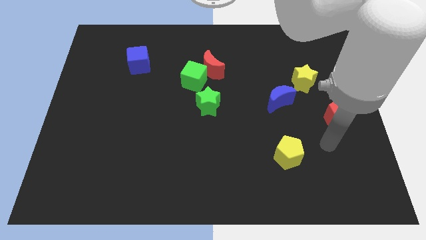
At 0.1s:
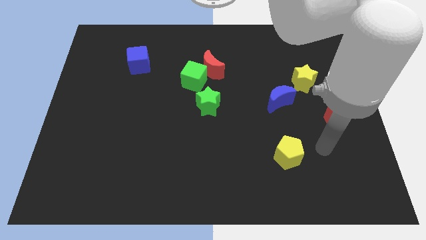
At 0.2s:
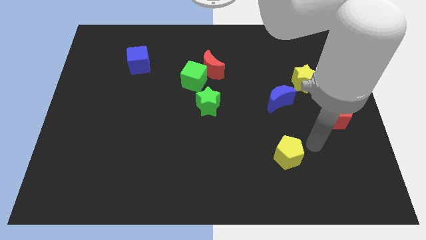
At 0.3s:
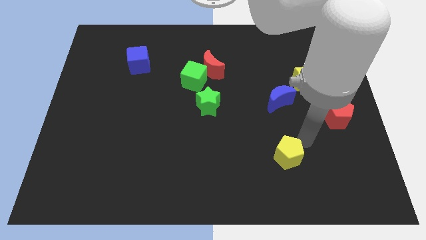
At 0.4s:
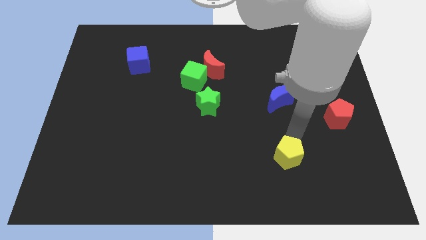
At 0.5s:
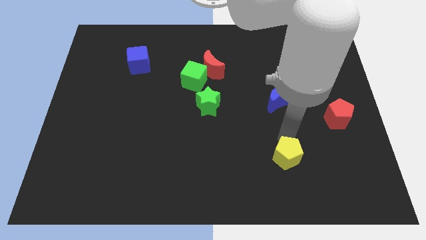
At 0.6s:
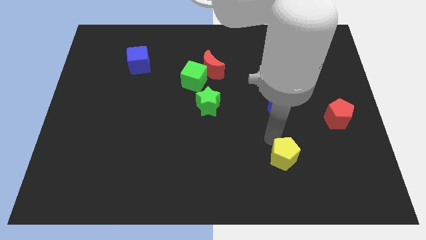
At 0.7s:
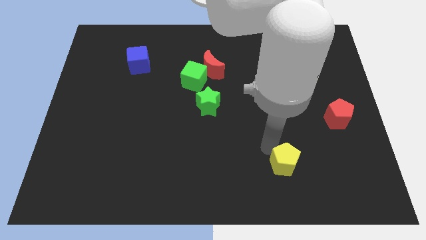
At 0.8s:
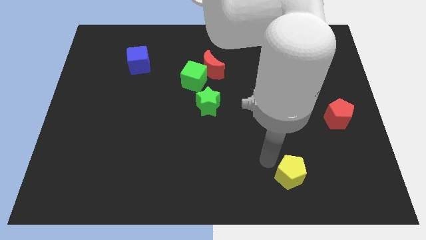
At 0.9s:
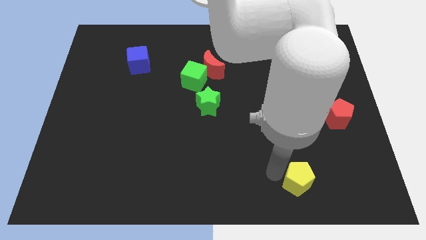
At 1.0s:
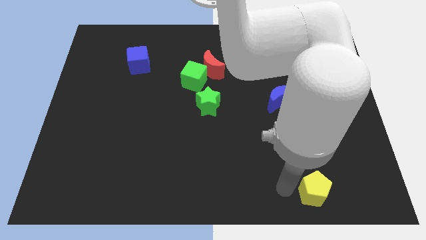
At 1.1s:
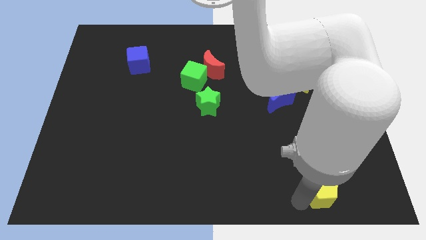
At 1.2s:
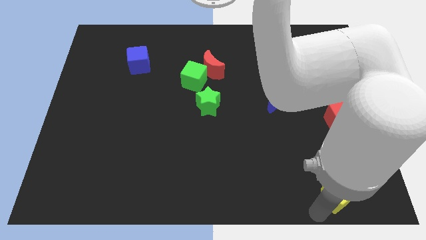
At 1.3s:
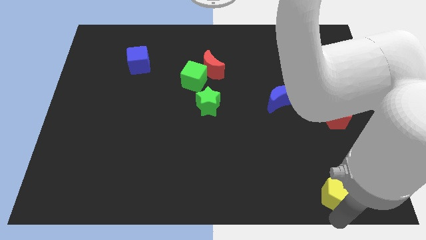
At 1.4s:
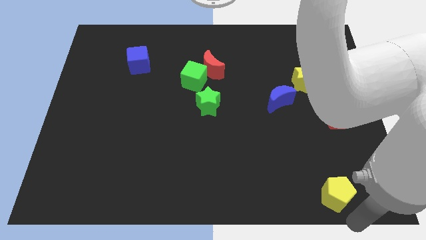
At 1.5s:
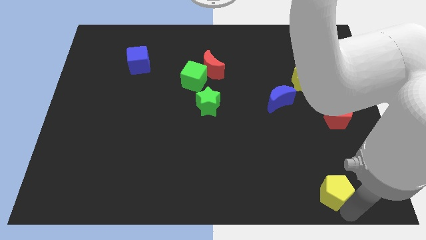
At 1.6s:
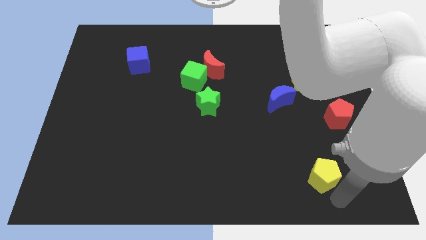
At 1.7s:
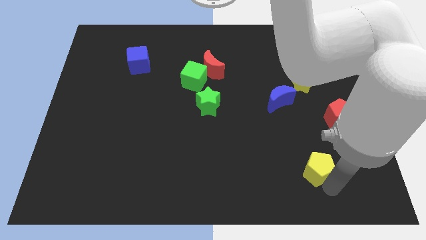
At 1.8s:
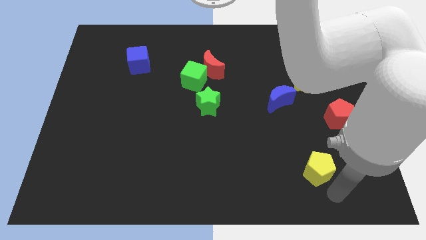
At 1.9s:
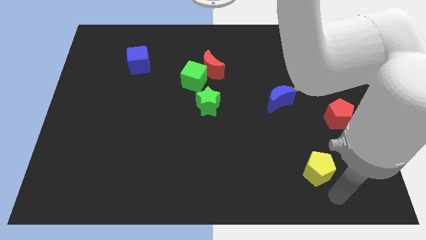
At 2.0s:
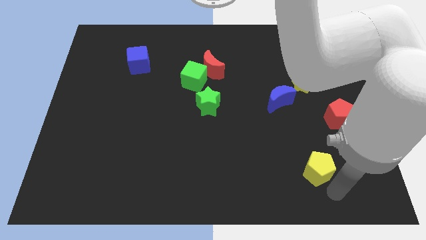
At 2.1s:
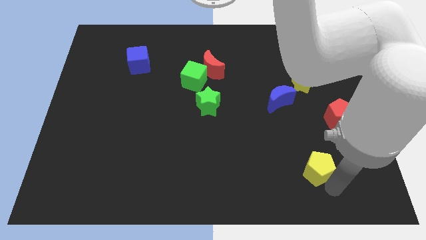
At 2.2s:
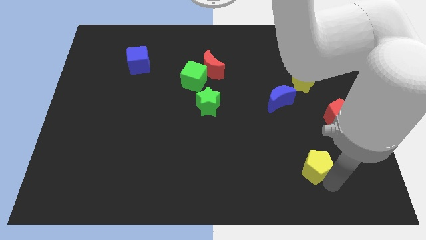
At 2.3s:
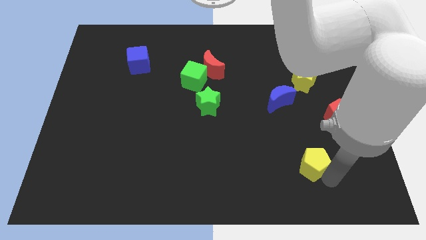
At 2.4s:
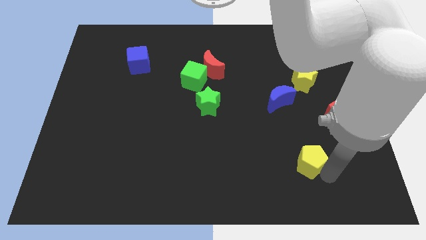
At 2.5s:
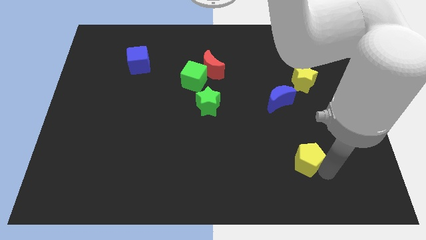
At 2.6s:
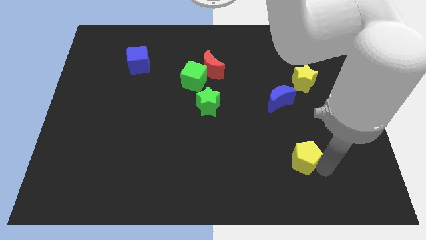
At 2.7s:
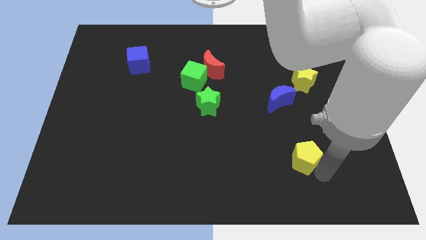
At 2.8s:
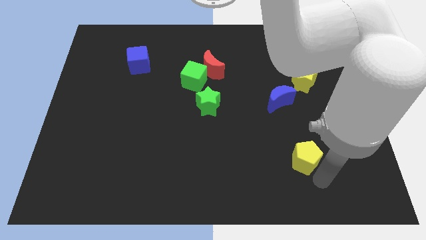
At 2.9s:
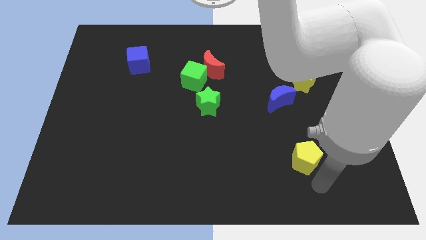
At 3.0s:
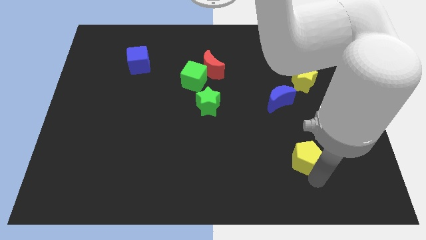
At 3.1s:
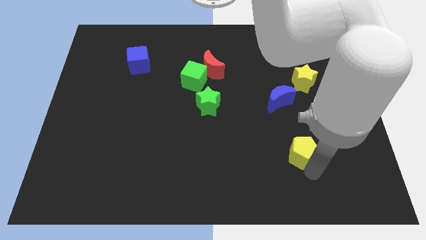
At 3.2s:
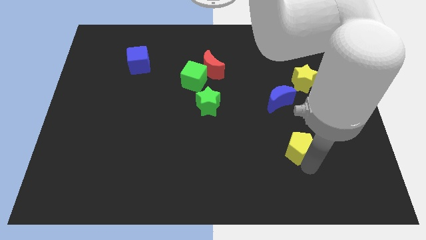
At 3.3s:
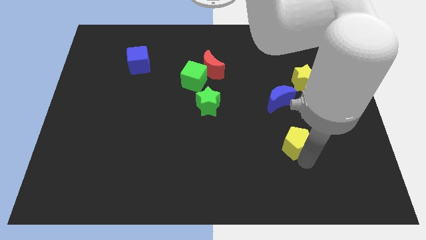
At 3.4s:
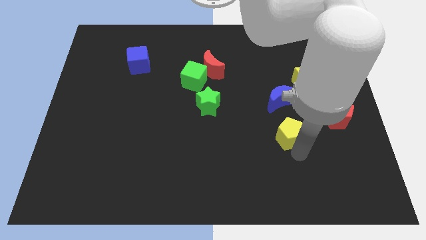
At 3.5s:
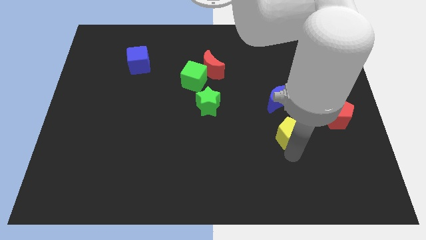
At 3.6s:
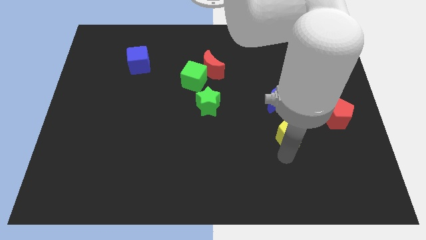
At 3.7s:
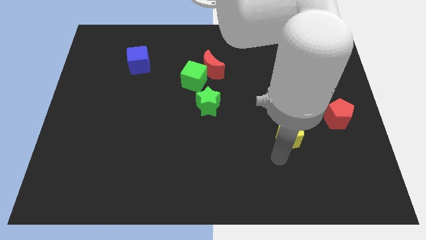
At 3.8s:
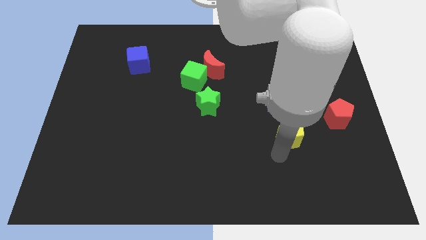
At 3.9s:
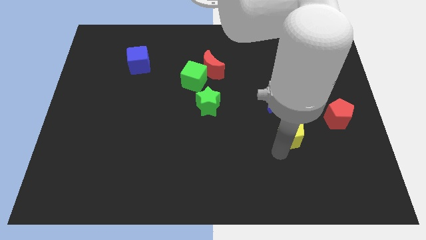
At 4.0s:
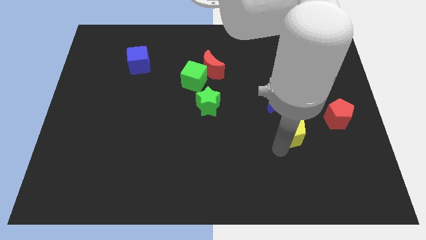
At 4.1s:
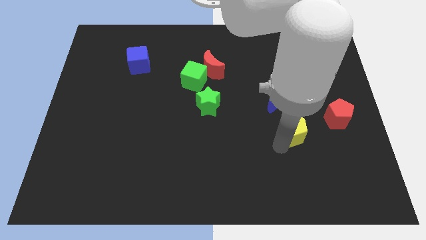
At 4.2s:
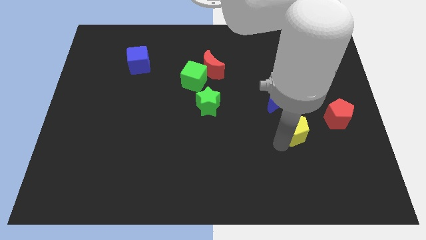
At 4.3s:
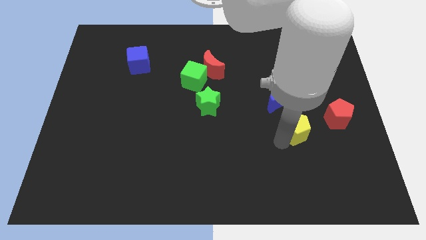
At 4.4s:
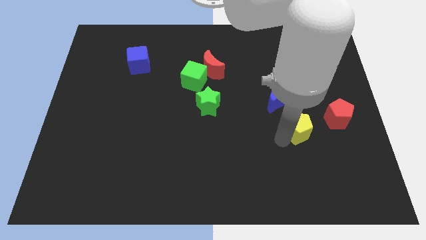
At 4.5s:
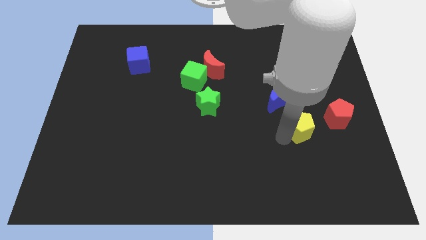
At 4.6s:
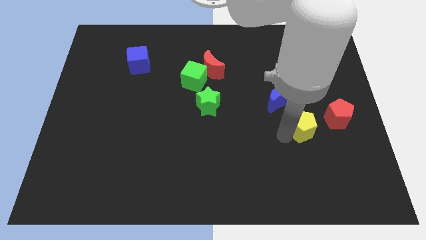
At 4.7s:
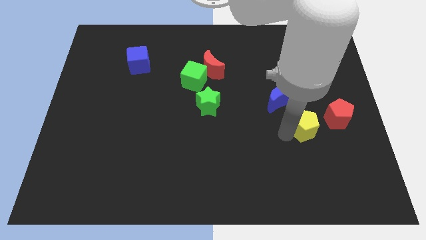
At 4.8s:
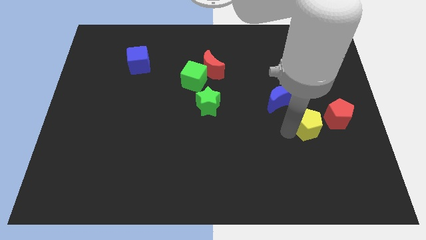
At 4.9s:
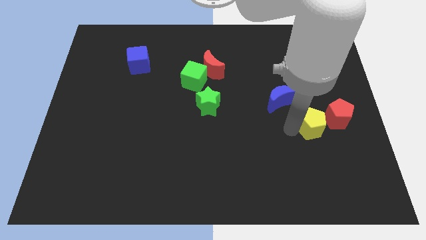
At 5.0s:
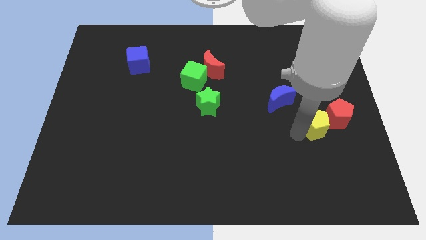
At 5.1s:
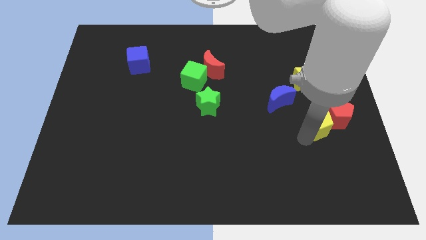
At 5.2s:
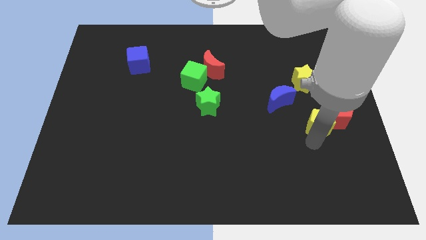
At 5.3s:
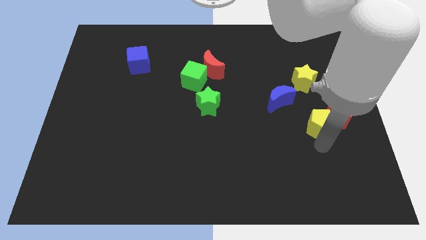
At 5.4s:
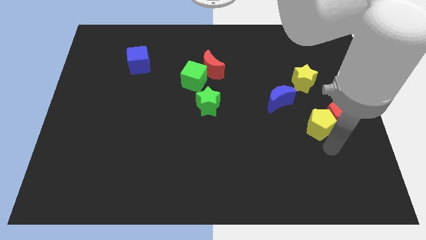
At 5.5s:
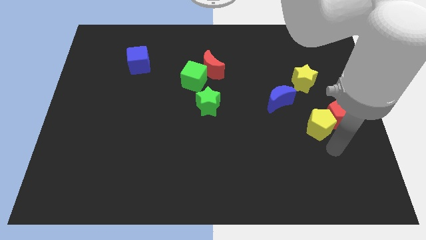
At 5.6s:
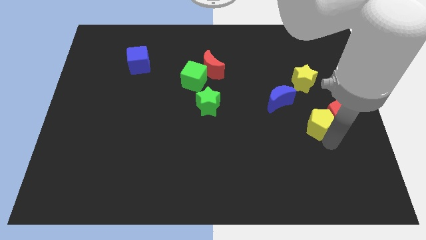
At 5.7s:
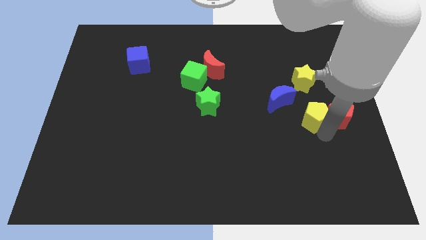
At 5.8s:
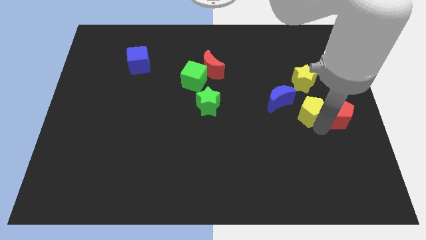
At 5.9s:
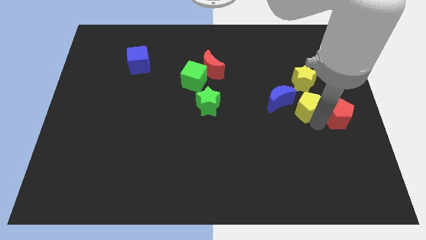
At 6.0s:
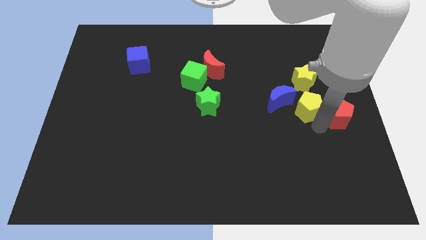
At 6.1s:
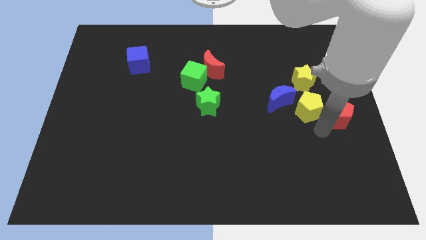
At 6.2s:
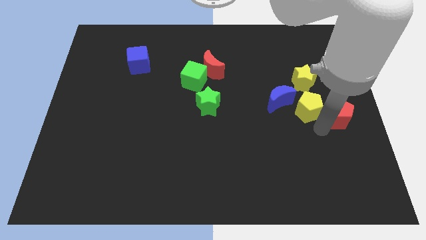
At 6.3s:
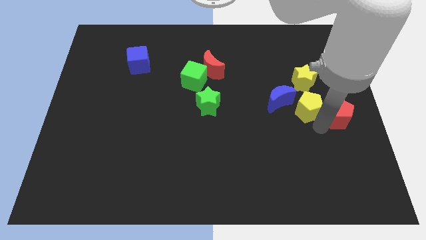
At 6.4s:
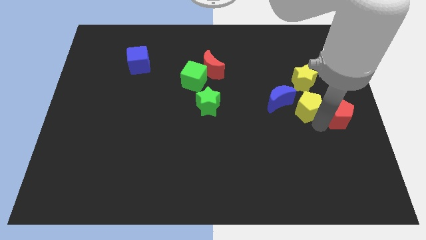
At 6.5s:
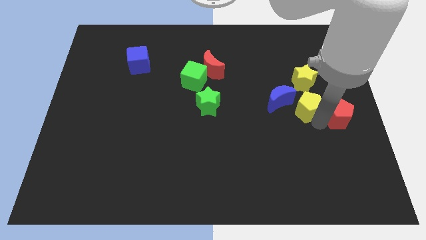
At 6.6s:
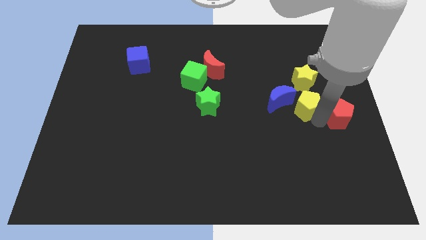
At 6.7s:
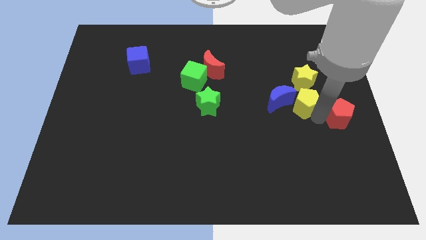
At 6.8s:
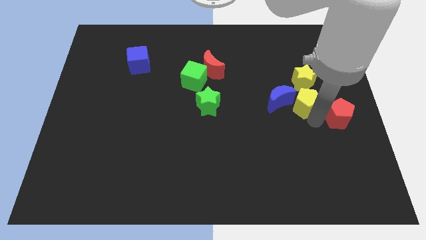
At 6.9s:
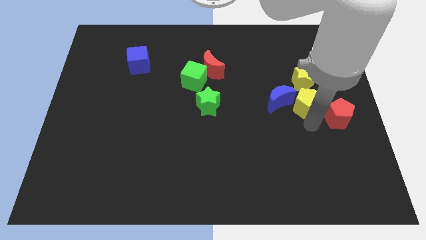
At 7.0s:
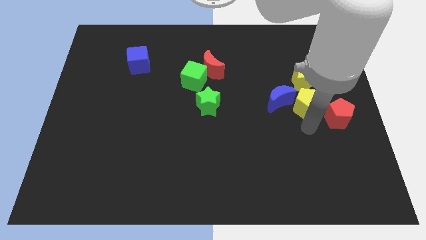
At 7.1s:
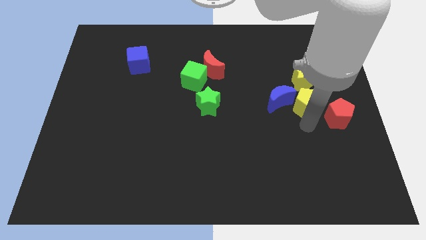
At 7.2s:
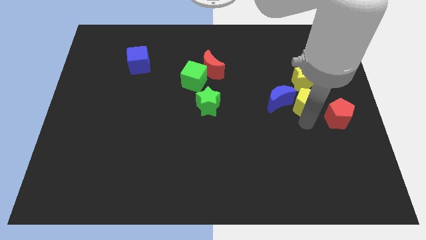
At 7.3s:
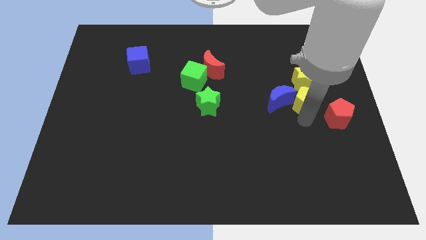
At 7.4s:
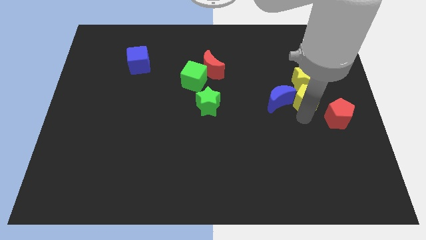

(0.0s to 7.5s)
slide the yellow pentagon towards the yellow star

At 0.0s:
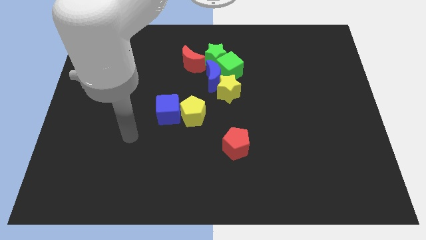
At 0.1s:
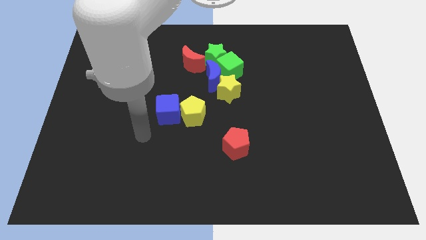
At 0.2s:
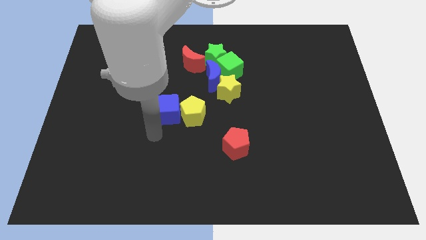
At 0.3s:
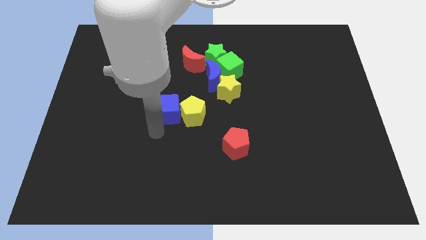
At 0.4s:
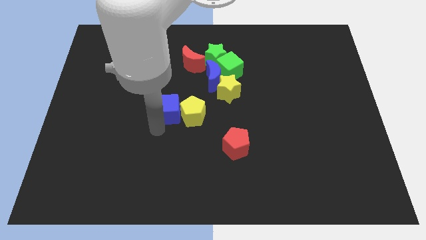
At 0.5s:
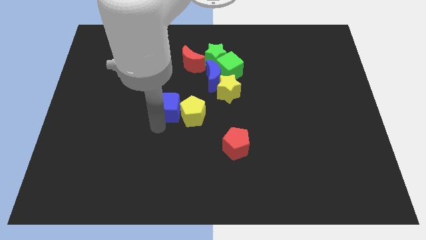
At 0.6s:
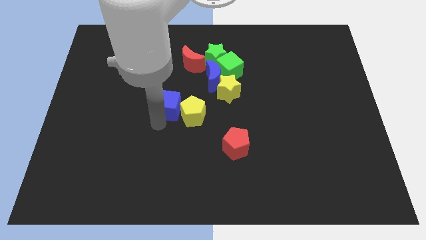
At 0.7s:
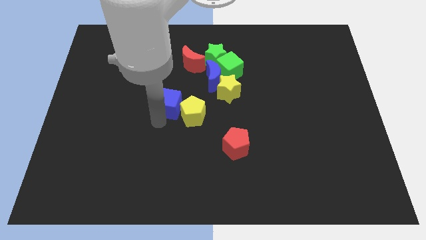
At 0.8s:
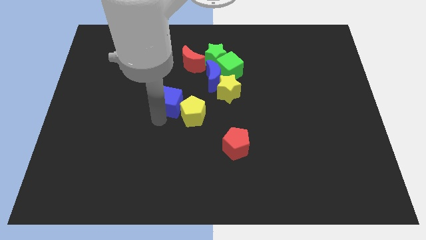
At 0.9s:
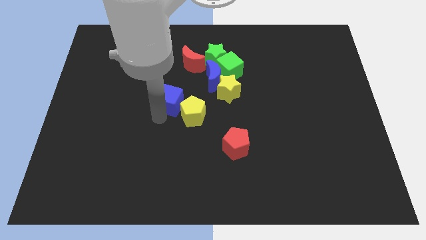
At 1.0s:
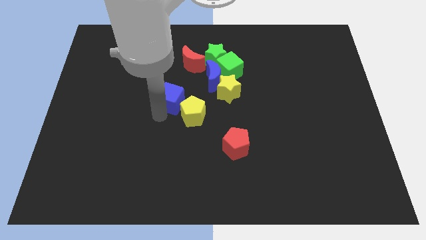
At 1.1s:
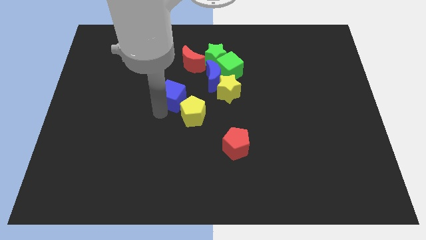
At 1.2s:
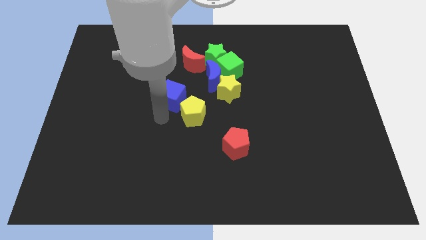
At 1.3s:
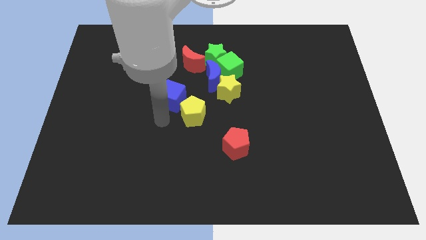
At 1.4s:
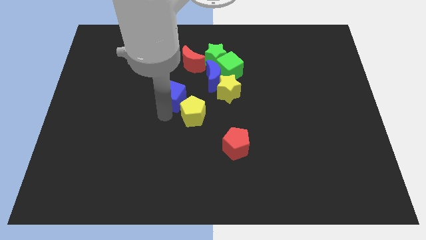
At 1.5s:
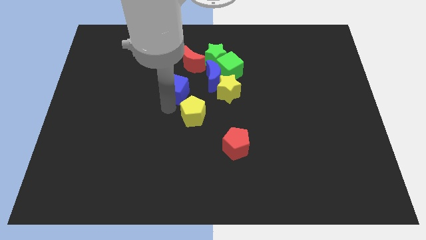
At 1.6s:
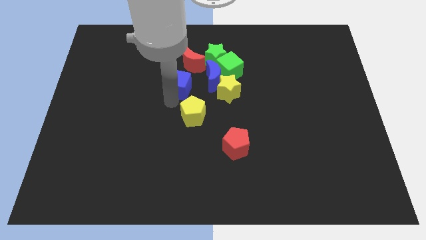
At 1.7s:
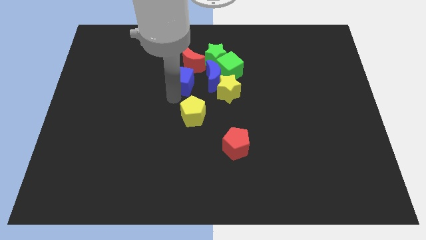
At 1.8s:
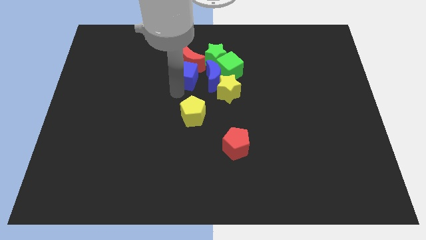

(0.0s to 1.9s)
slide the blue cube close to the red moon
